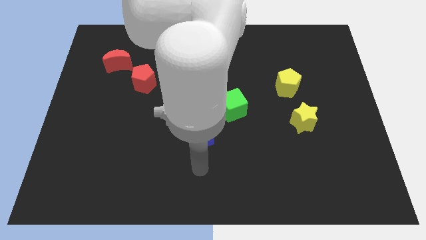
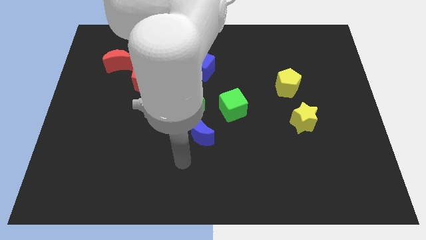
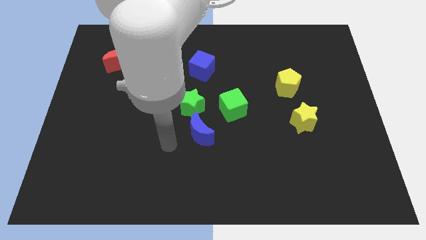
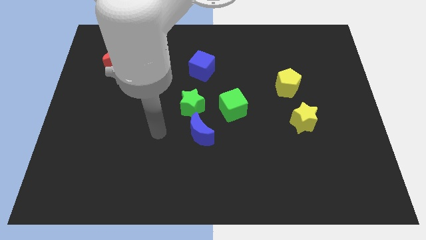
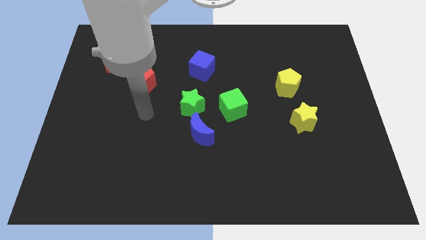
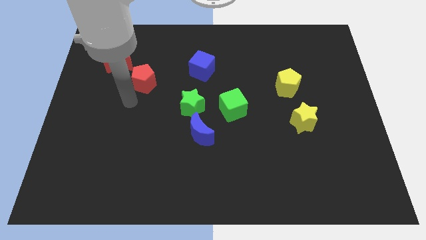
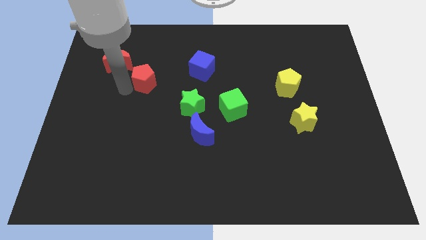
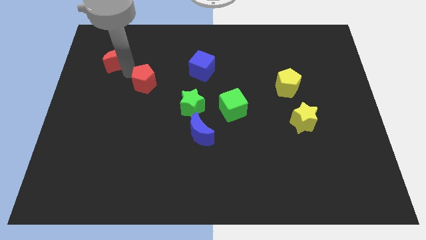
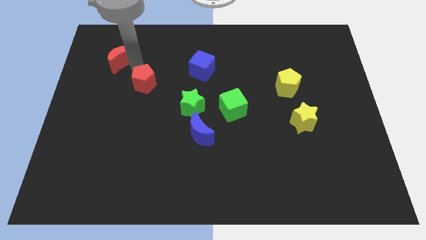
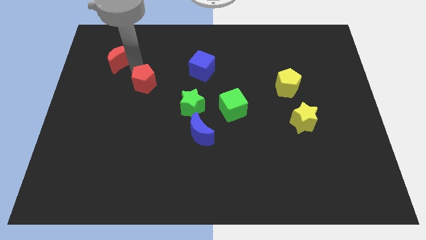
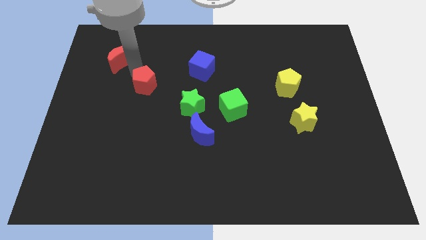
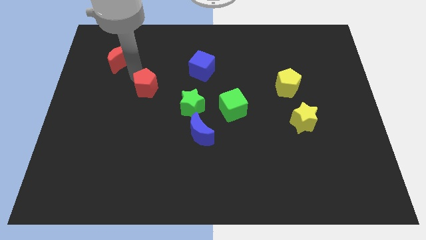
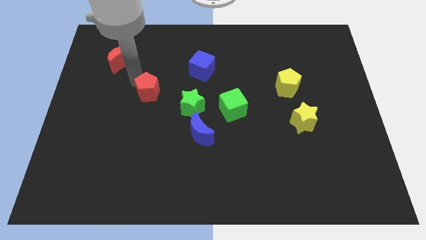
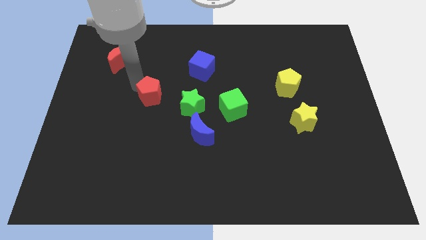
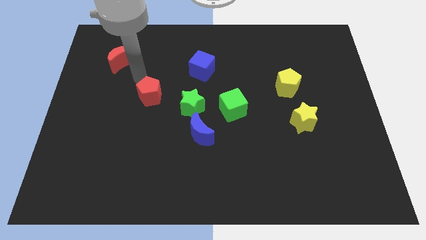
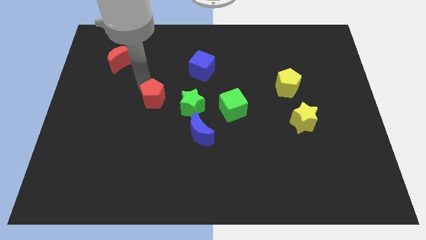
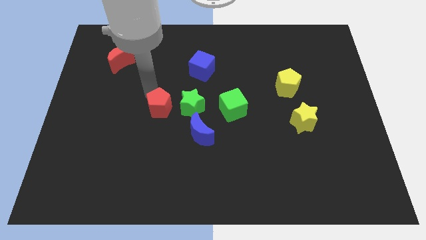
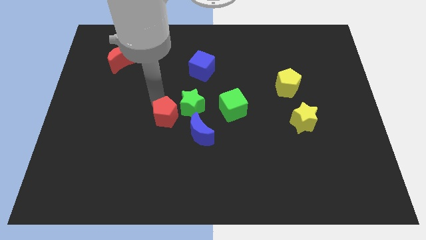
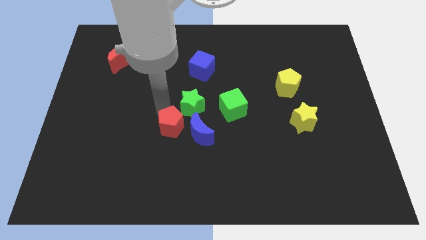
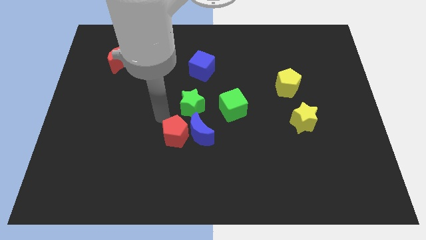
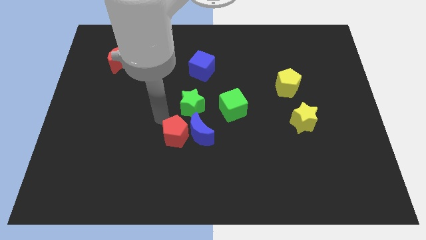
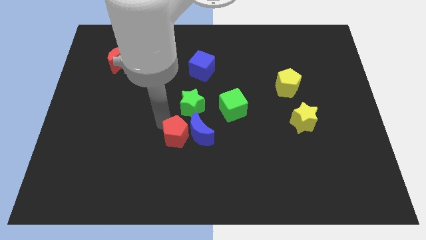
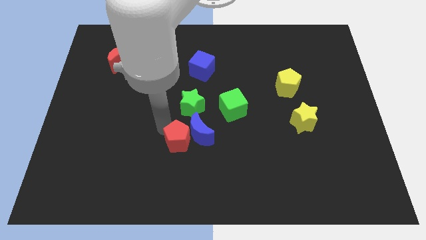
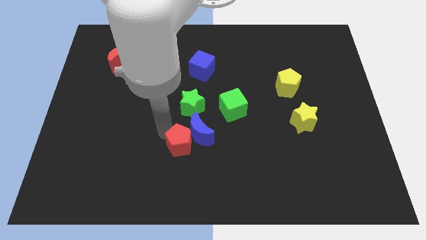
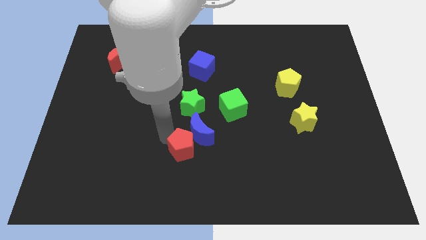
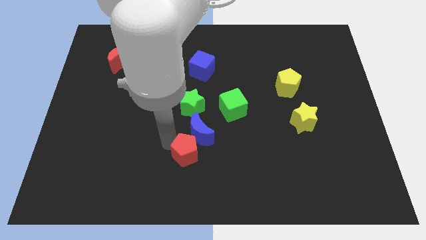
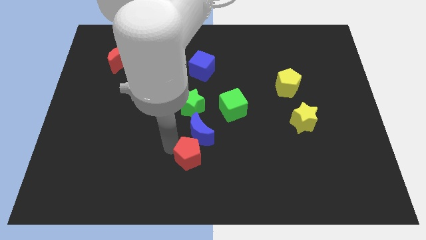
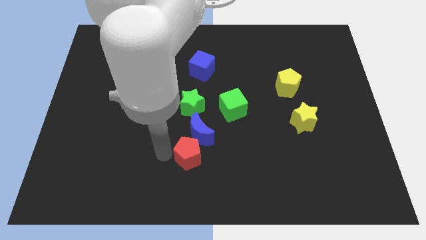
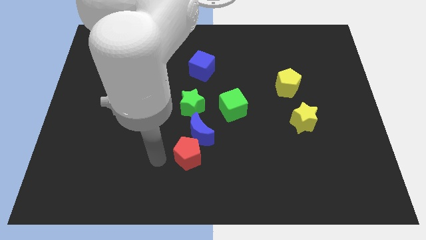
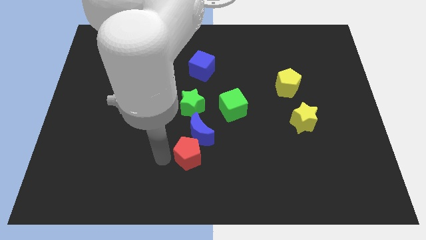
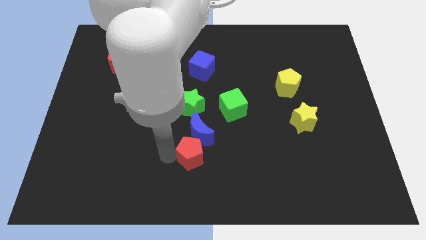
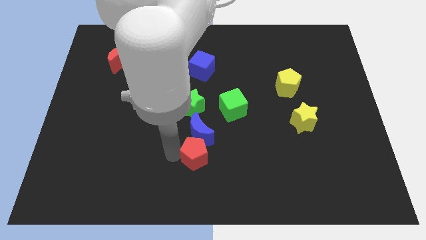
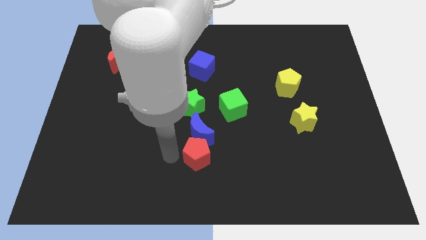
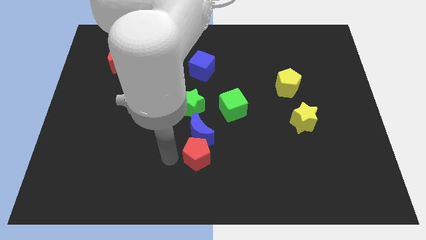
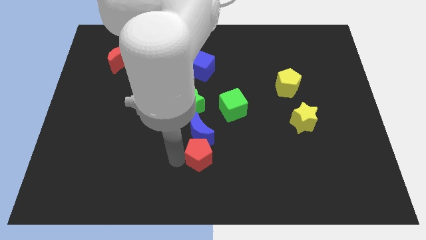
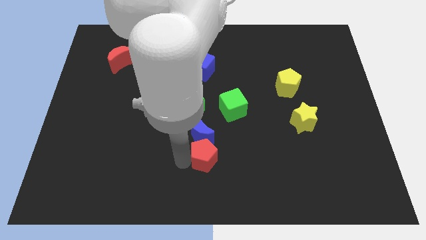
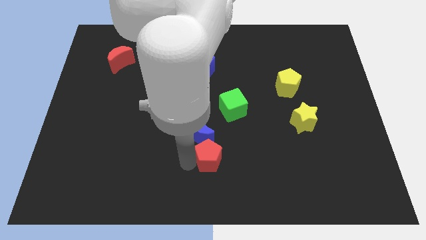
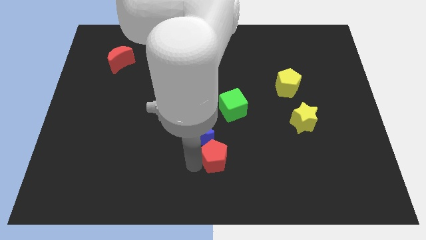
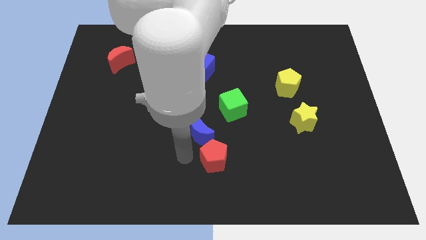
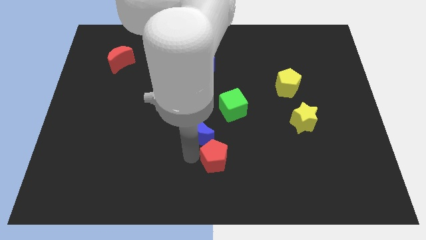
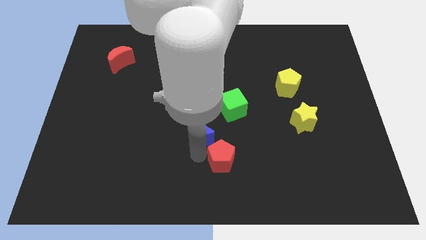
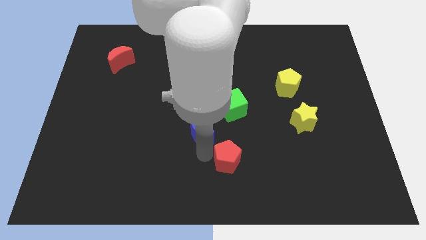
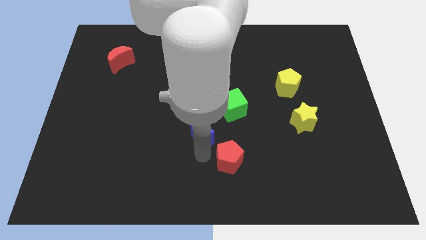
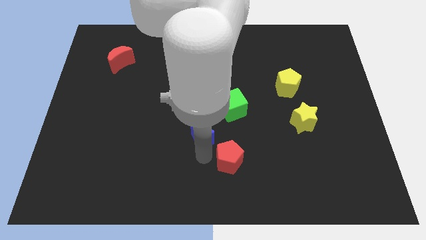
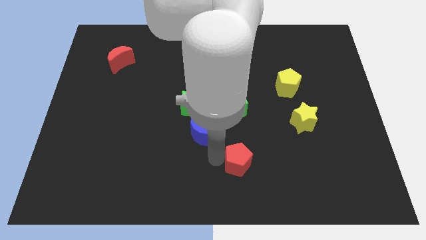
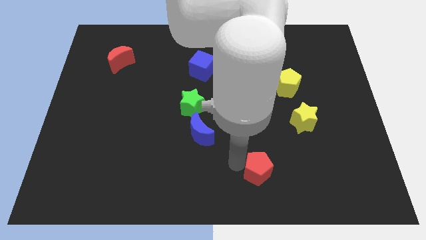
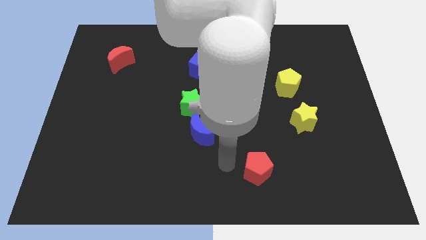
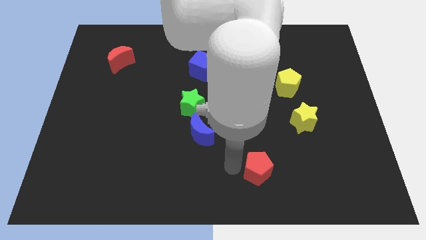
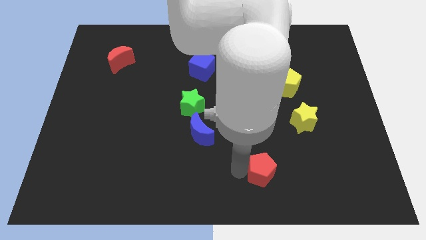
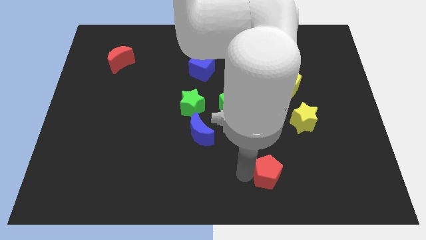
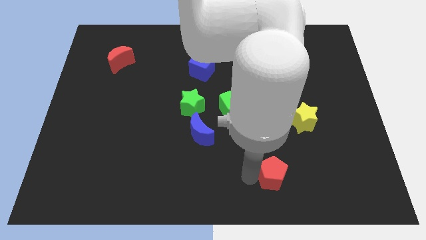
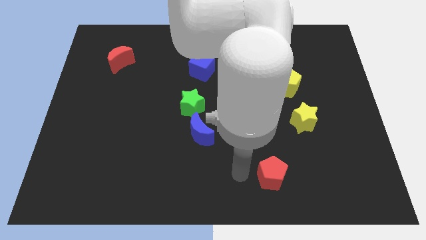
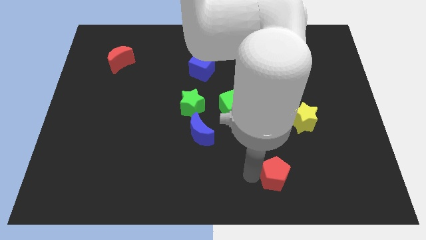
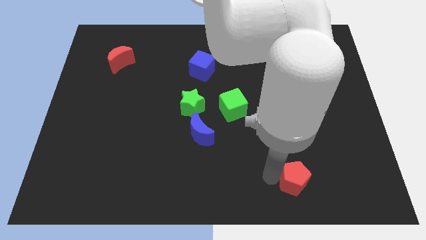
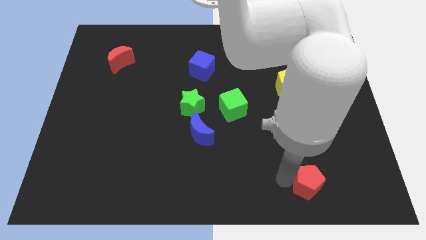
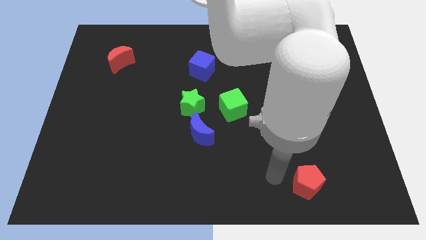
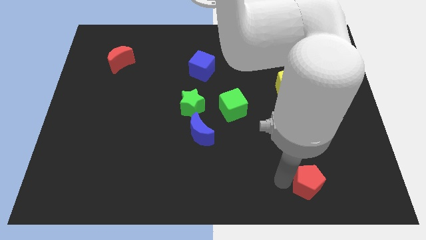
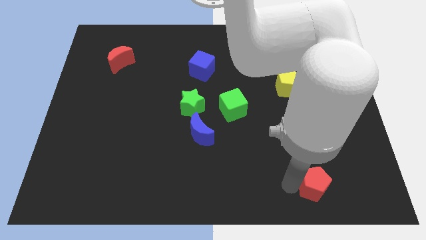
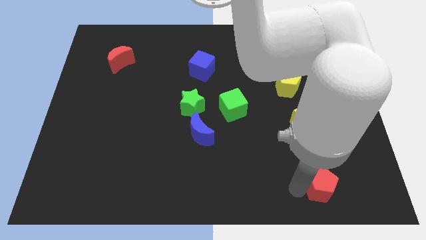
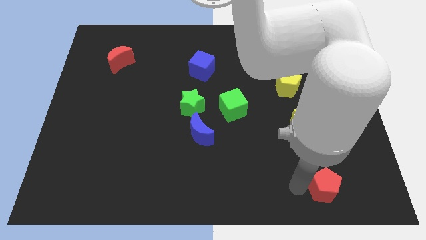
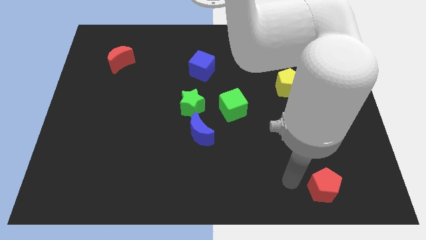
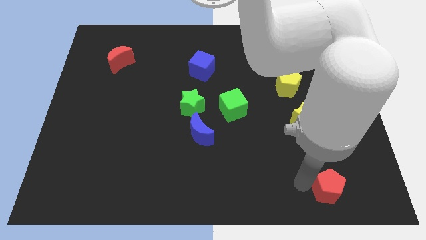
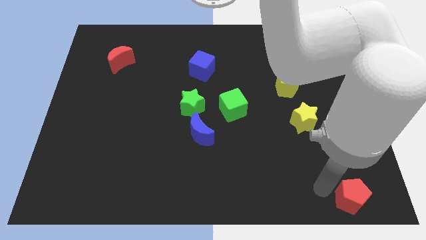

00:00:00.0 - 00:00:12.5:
slide the red pentagon to the bottom right
